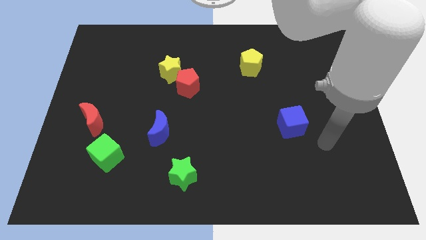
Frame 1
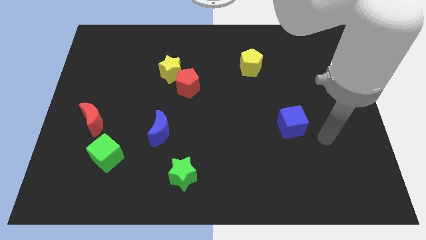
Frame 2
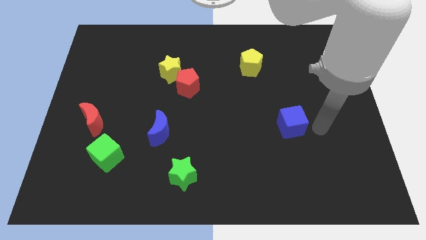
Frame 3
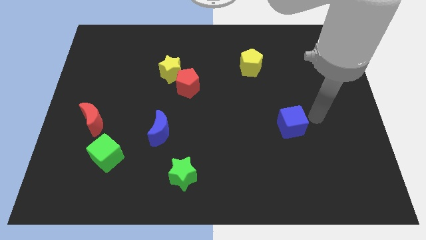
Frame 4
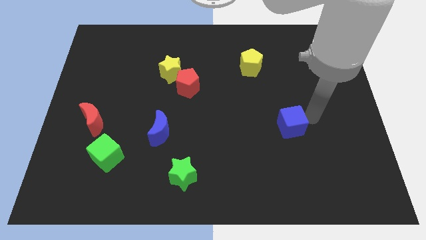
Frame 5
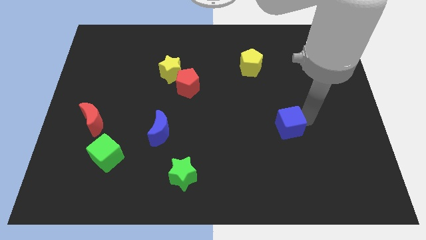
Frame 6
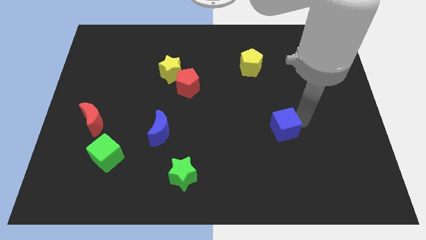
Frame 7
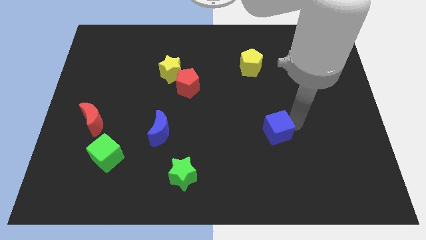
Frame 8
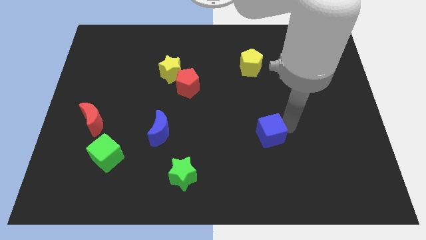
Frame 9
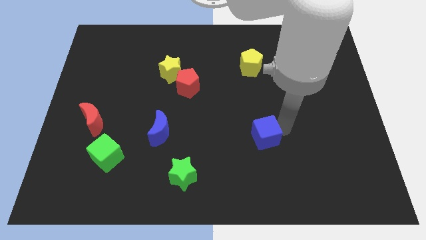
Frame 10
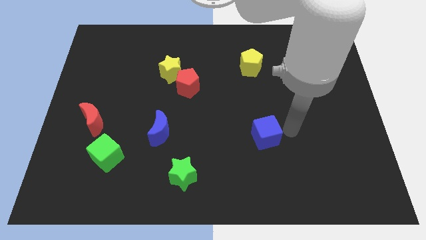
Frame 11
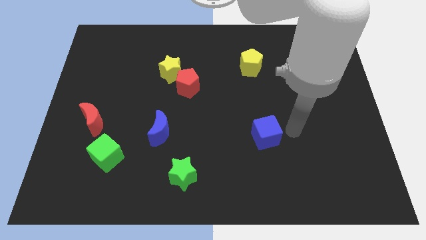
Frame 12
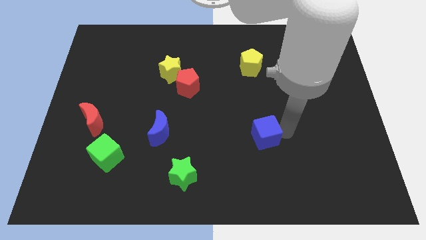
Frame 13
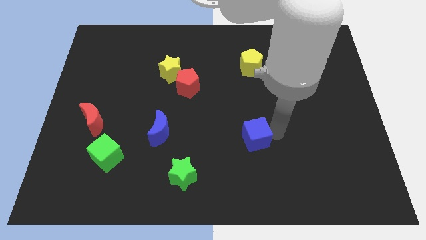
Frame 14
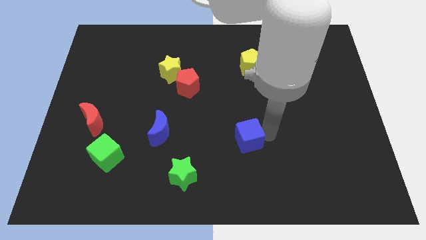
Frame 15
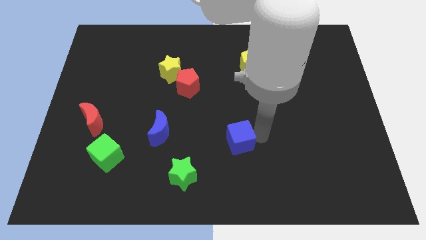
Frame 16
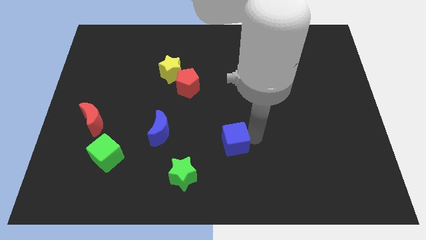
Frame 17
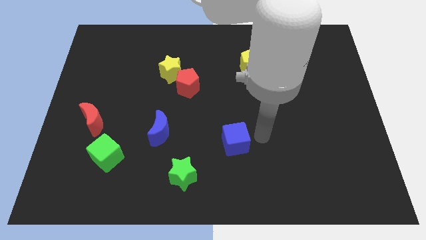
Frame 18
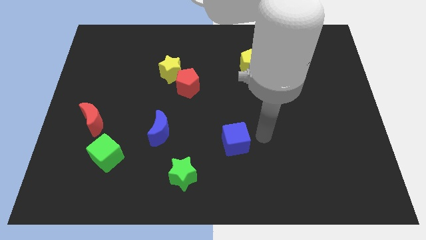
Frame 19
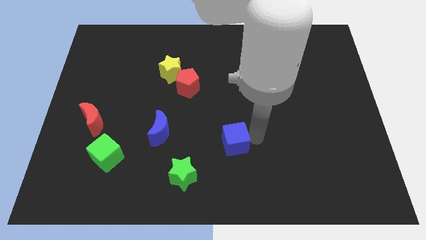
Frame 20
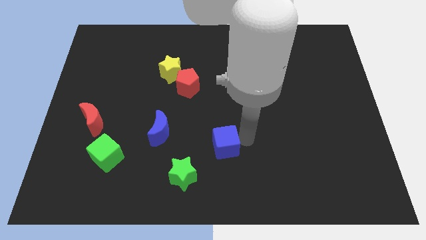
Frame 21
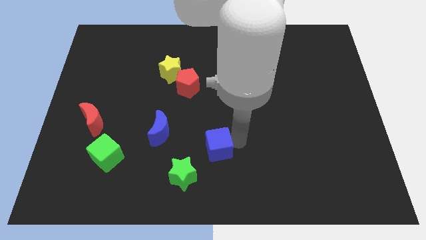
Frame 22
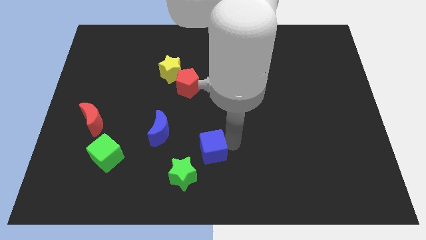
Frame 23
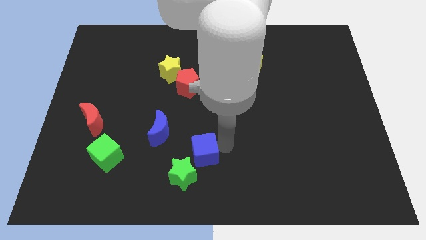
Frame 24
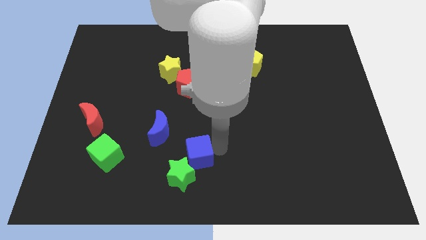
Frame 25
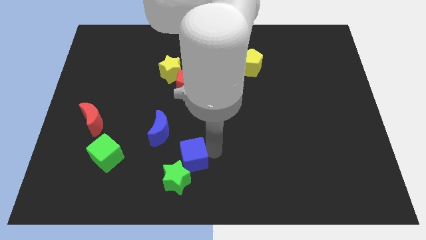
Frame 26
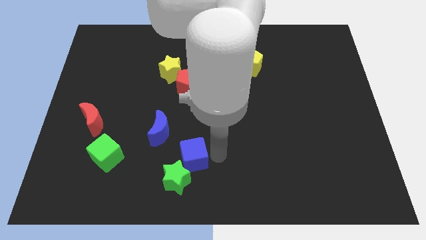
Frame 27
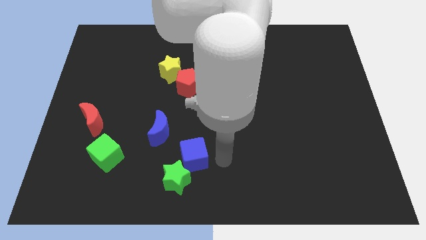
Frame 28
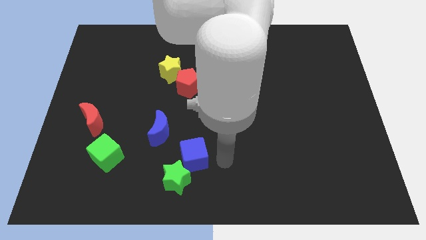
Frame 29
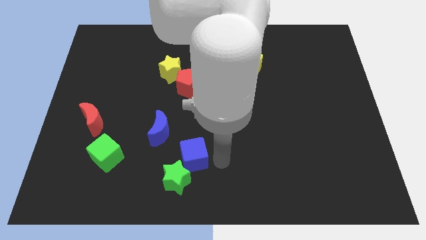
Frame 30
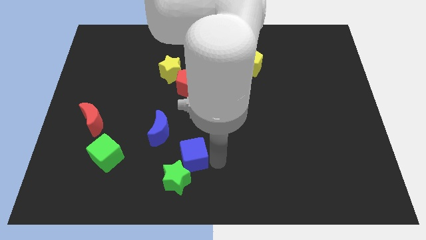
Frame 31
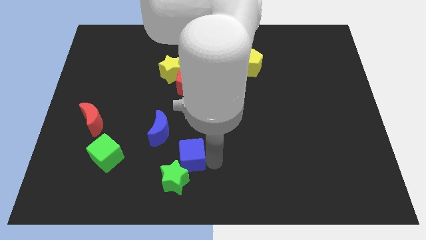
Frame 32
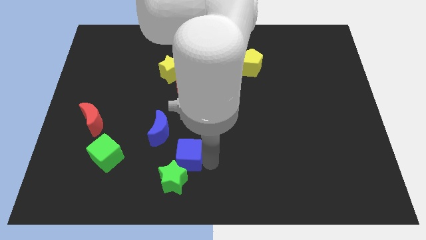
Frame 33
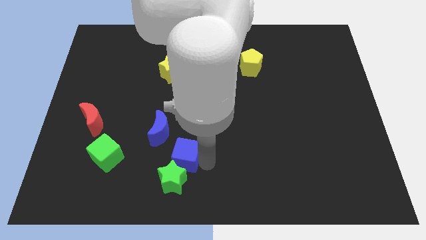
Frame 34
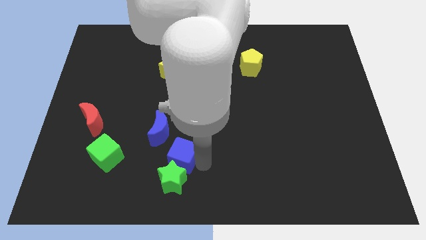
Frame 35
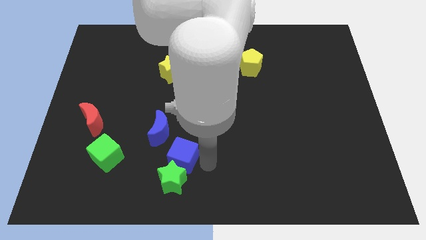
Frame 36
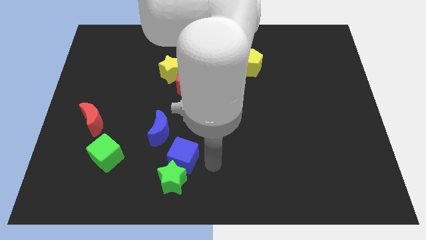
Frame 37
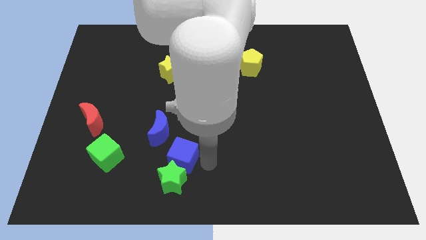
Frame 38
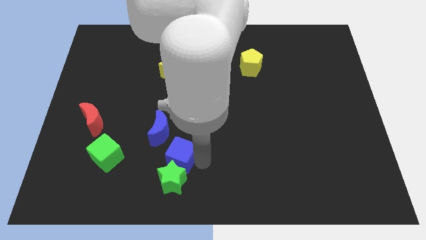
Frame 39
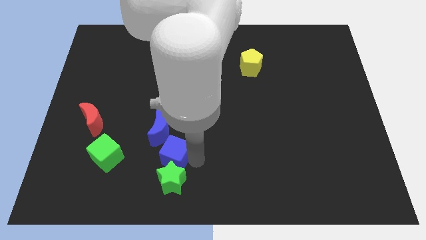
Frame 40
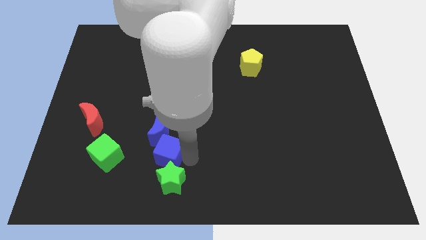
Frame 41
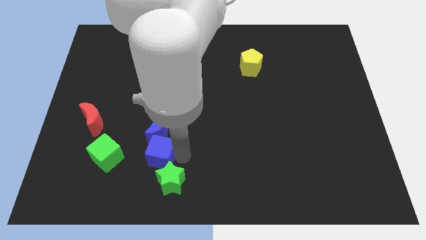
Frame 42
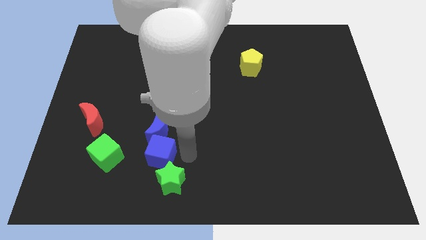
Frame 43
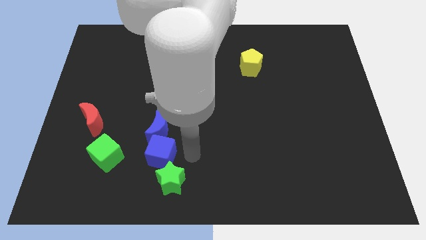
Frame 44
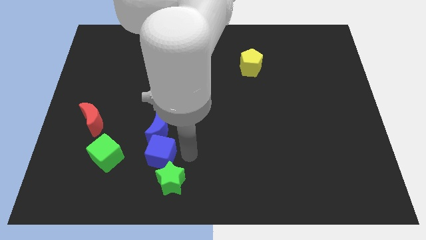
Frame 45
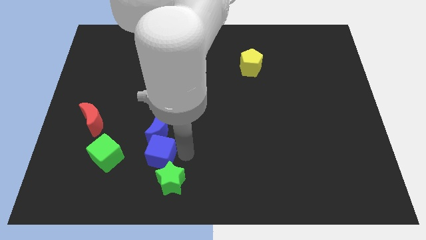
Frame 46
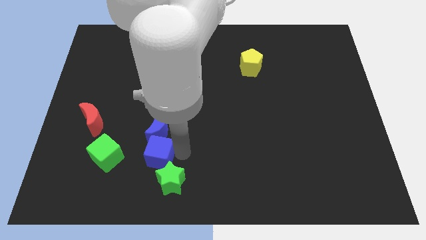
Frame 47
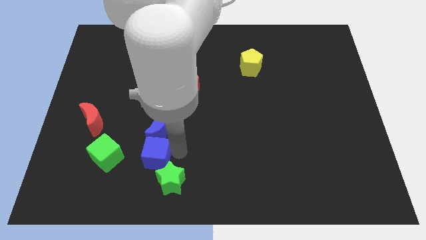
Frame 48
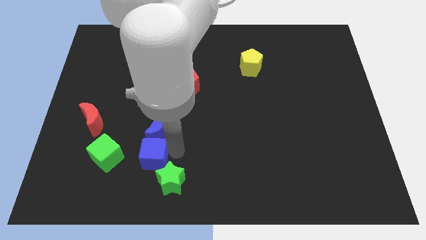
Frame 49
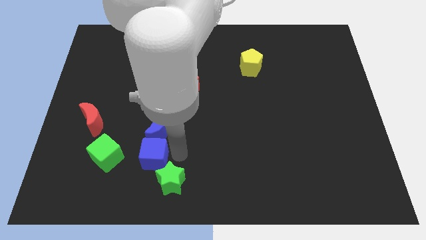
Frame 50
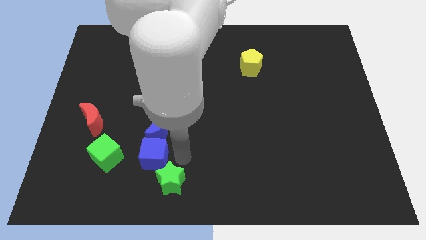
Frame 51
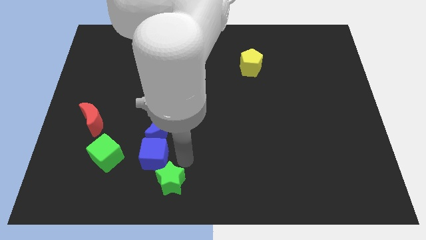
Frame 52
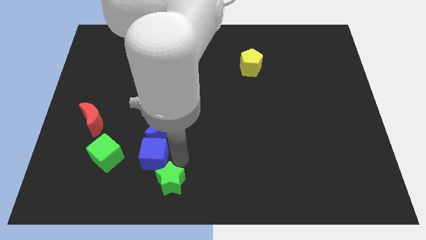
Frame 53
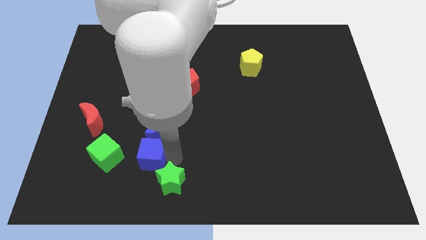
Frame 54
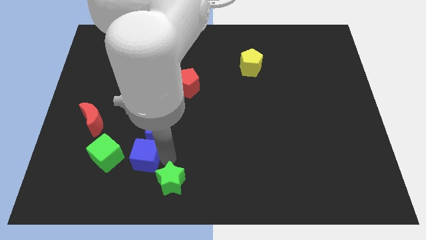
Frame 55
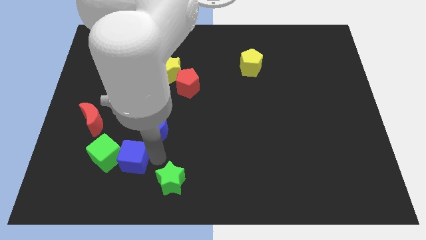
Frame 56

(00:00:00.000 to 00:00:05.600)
move the blue cube close to the green cube

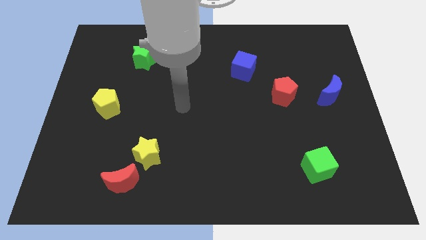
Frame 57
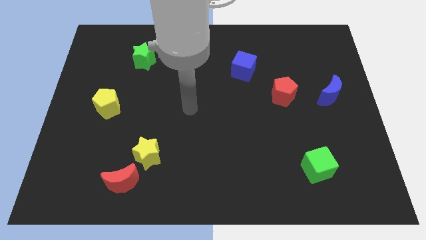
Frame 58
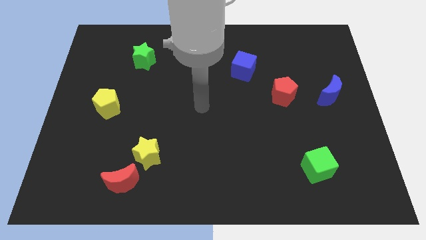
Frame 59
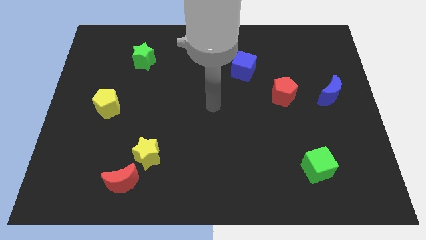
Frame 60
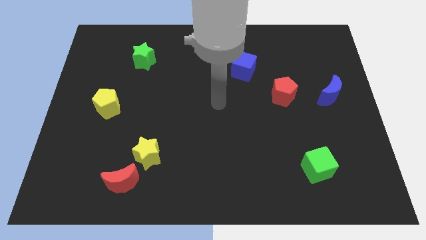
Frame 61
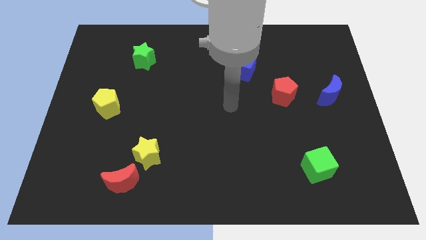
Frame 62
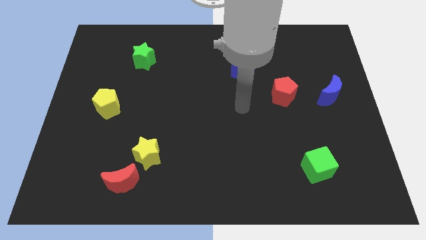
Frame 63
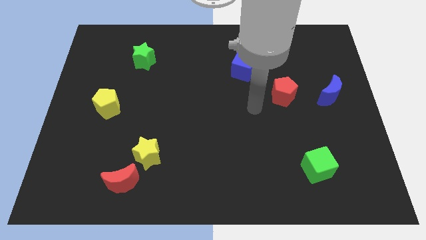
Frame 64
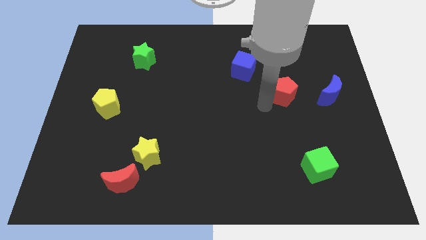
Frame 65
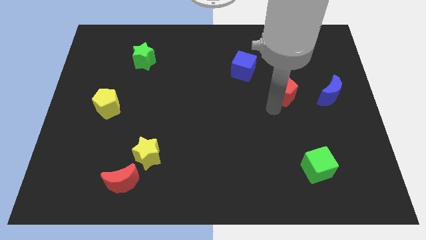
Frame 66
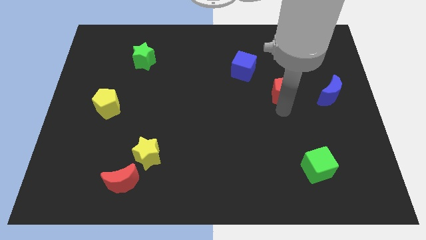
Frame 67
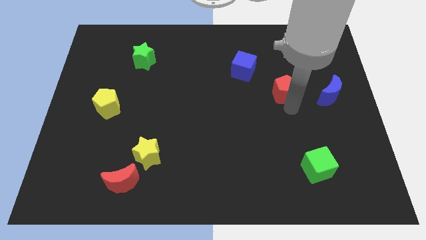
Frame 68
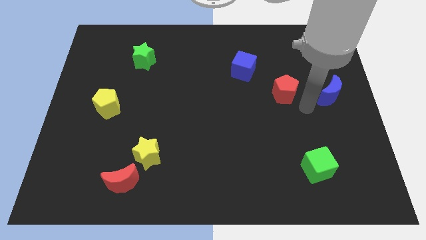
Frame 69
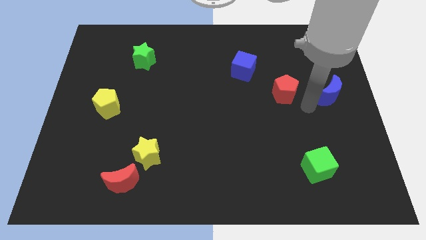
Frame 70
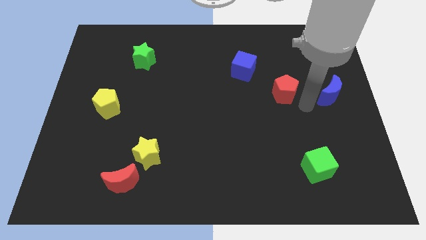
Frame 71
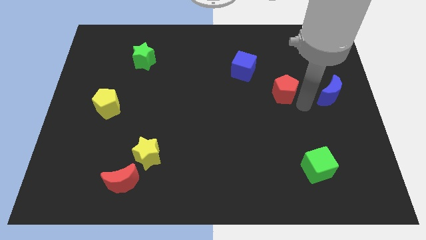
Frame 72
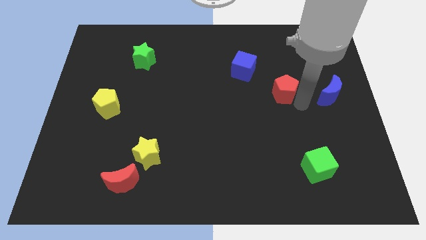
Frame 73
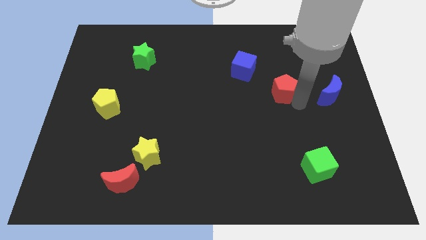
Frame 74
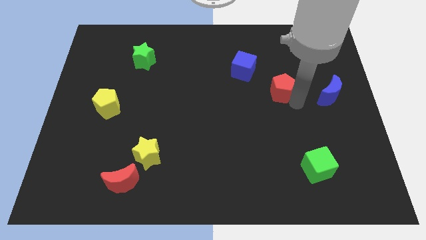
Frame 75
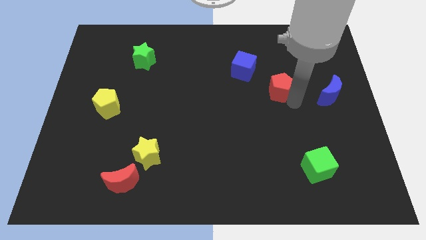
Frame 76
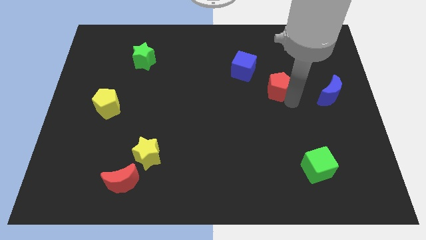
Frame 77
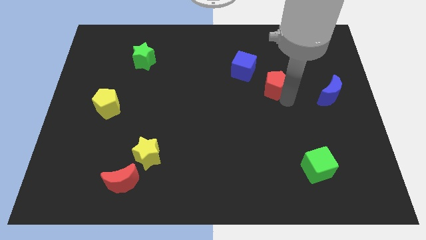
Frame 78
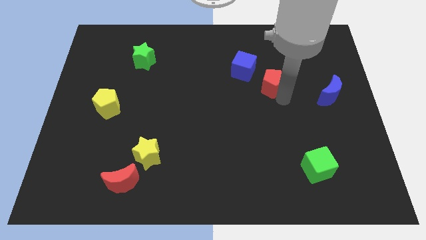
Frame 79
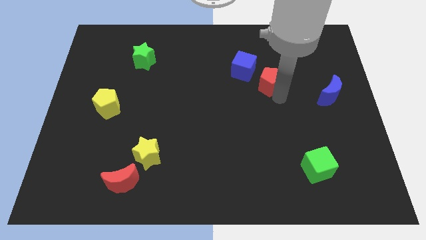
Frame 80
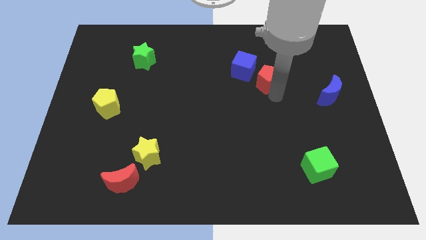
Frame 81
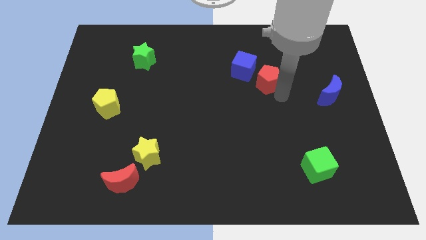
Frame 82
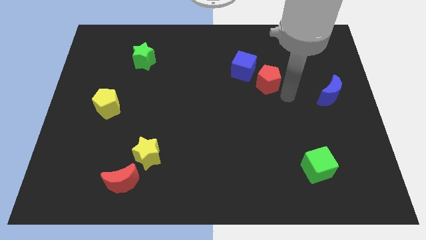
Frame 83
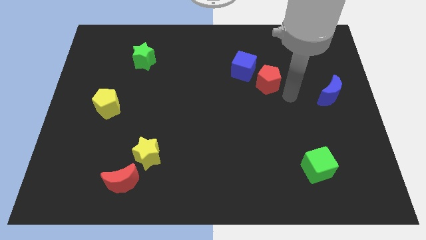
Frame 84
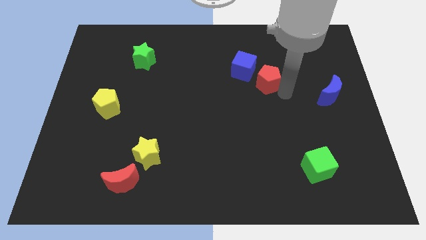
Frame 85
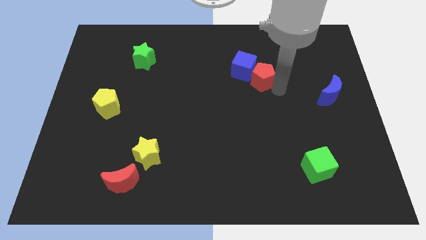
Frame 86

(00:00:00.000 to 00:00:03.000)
push the red pentagon to the blue cube
